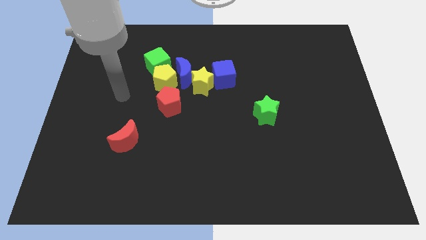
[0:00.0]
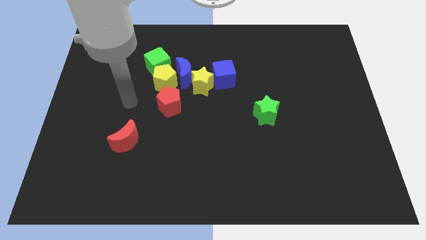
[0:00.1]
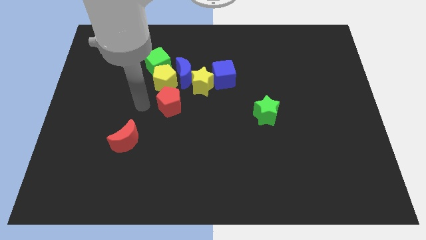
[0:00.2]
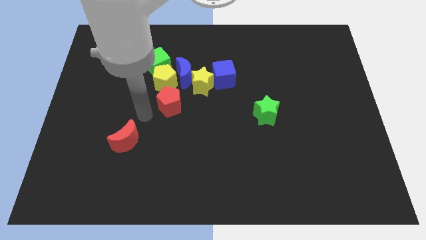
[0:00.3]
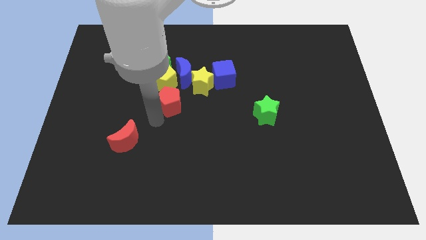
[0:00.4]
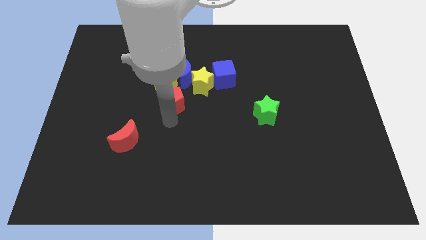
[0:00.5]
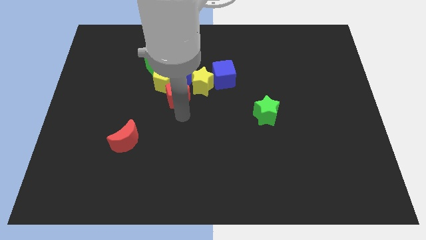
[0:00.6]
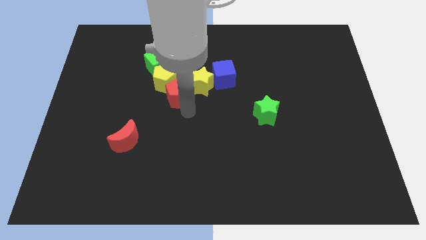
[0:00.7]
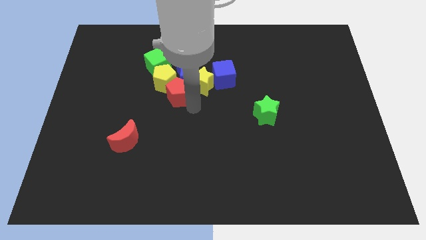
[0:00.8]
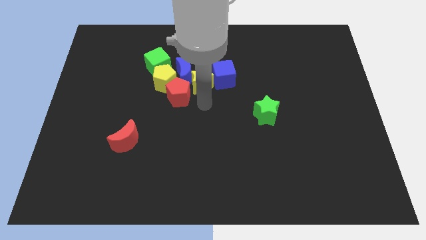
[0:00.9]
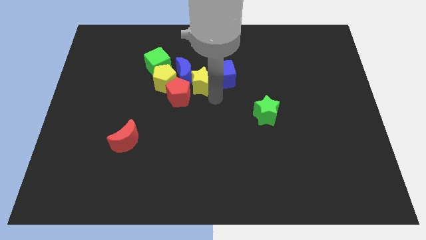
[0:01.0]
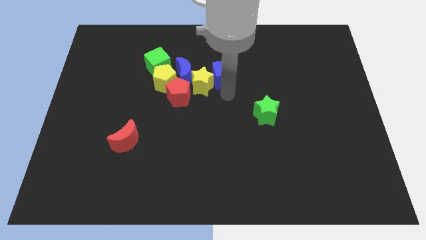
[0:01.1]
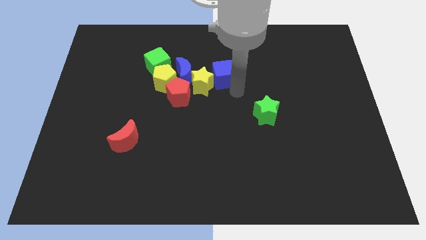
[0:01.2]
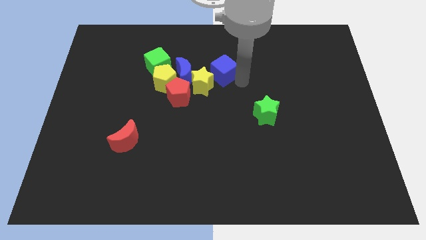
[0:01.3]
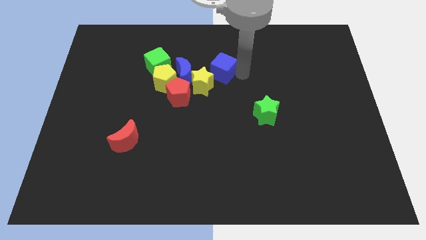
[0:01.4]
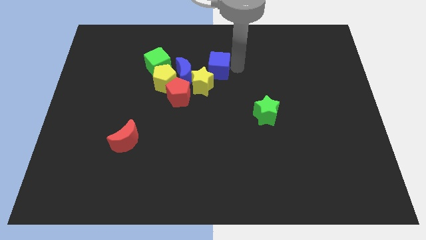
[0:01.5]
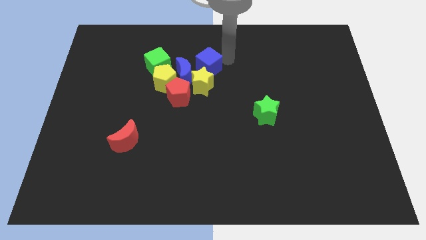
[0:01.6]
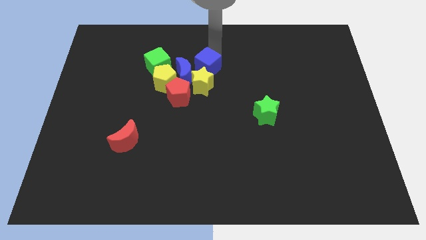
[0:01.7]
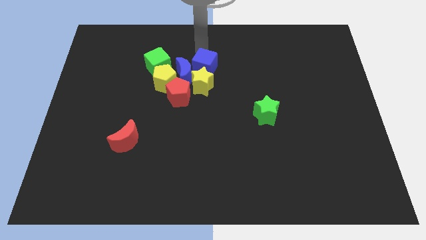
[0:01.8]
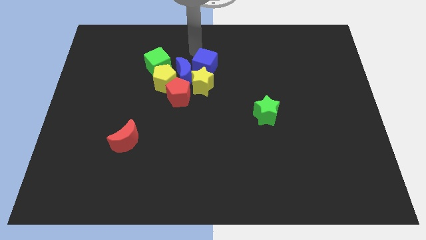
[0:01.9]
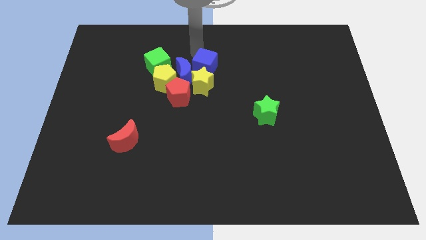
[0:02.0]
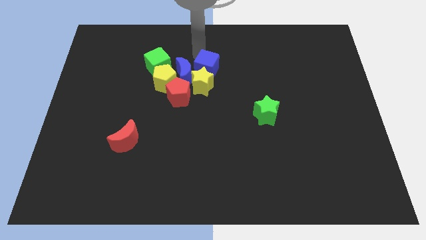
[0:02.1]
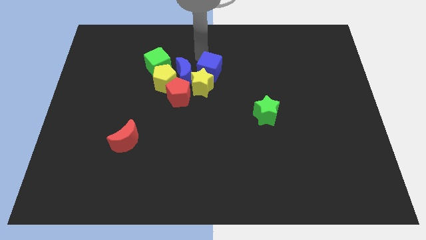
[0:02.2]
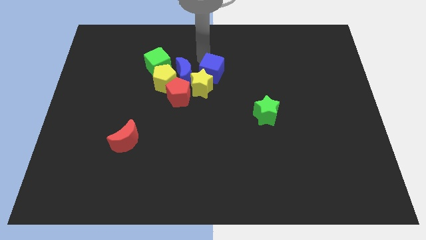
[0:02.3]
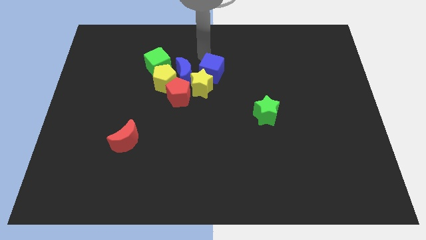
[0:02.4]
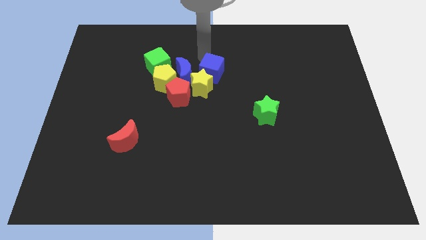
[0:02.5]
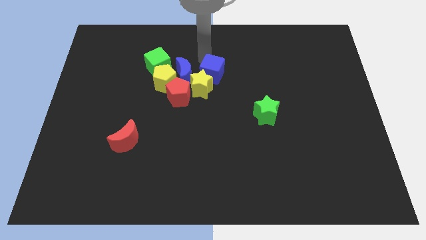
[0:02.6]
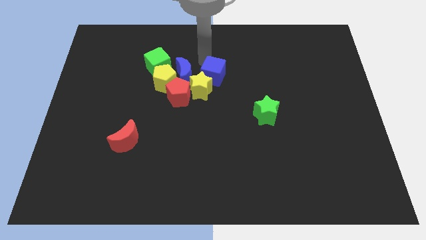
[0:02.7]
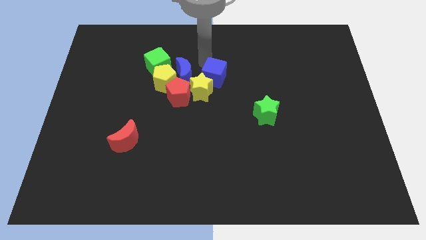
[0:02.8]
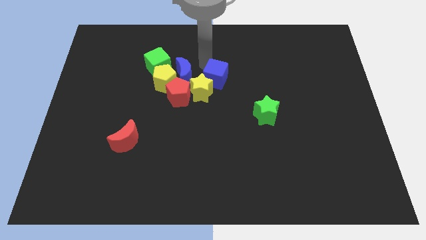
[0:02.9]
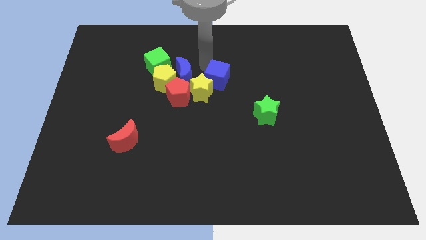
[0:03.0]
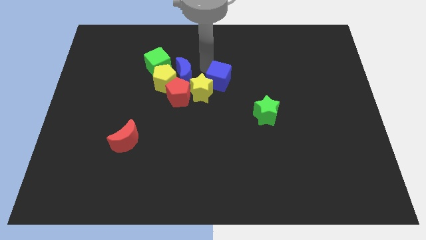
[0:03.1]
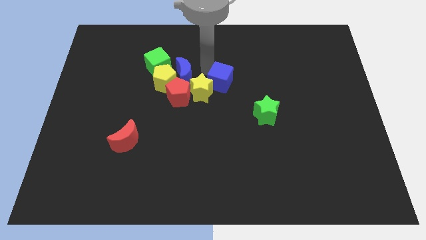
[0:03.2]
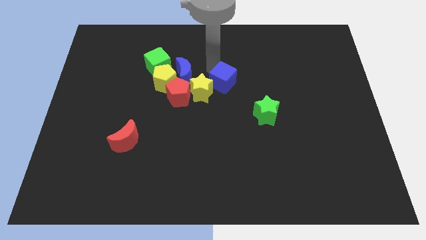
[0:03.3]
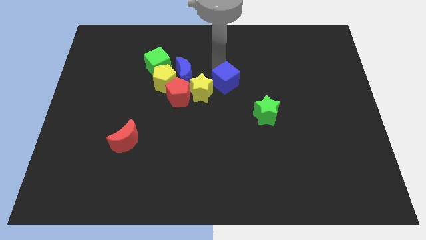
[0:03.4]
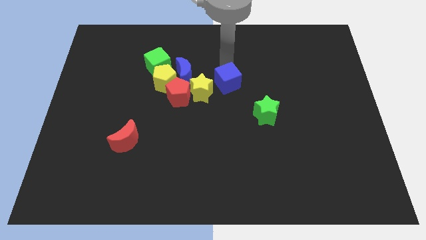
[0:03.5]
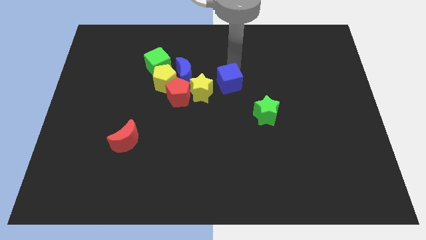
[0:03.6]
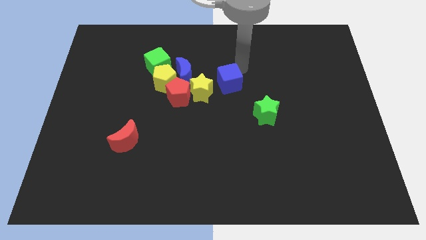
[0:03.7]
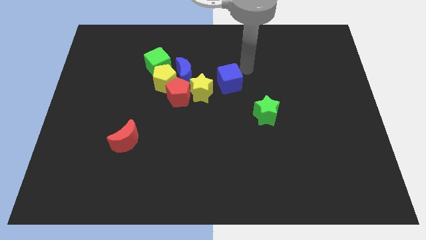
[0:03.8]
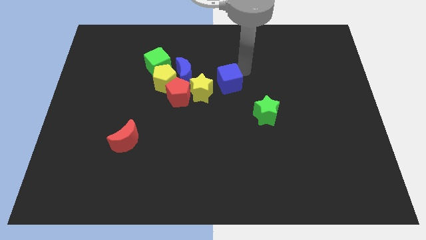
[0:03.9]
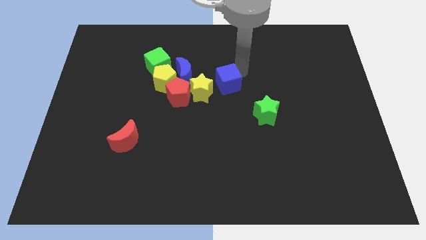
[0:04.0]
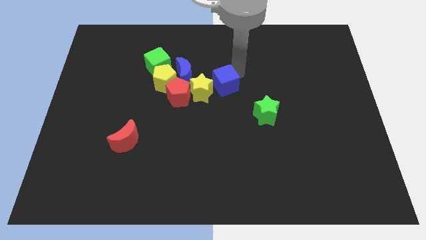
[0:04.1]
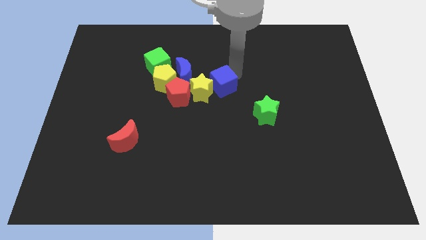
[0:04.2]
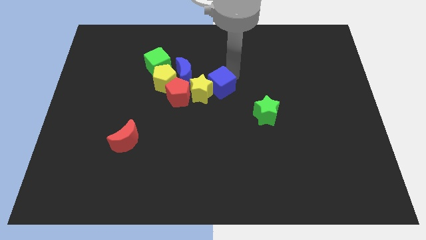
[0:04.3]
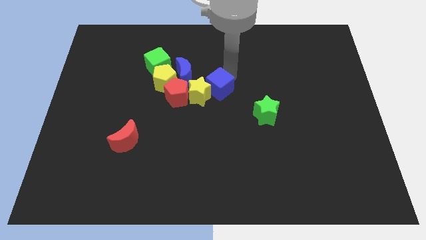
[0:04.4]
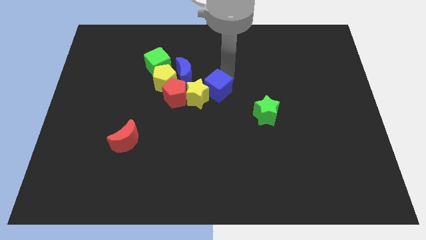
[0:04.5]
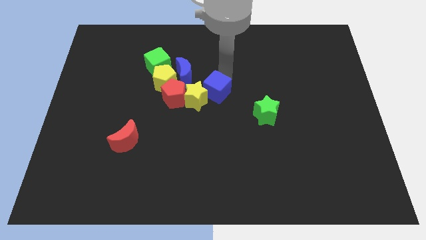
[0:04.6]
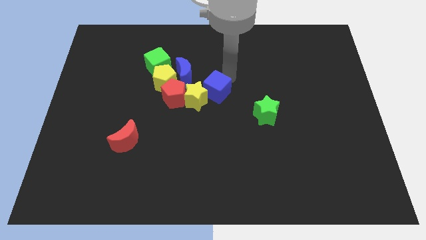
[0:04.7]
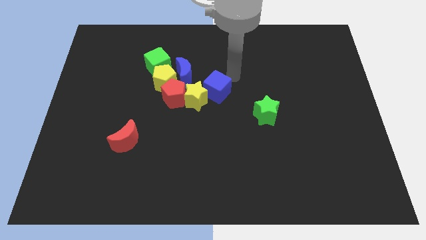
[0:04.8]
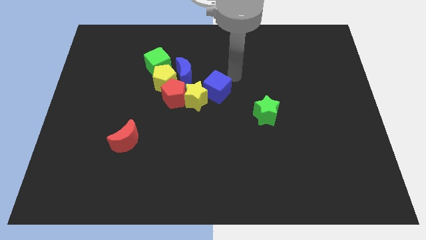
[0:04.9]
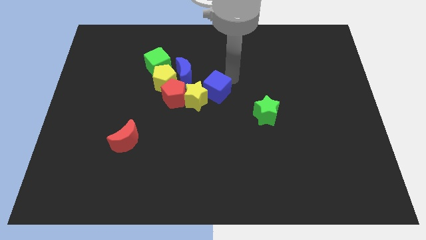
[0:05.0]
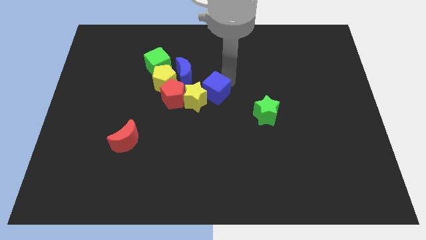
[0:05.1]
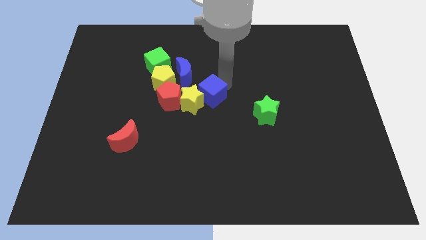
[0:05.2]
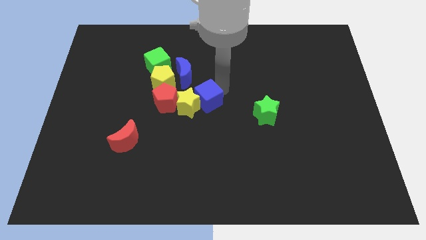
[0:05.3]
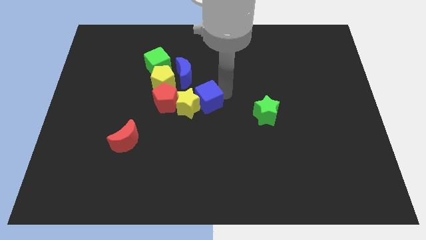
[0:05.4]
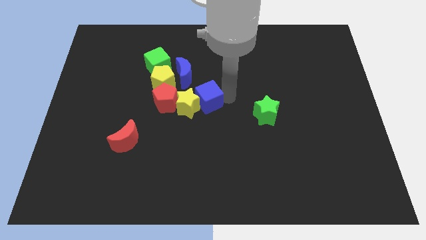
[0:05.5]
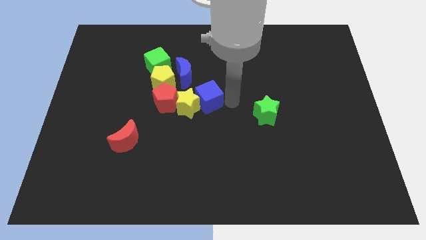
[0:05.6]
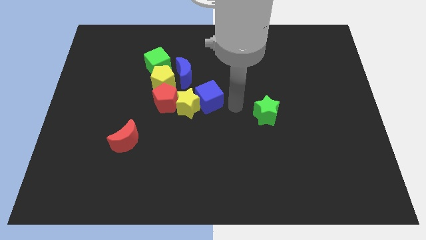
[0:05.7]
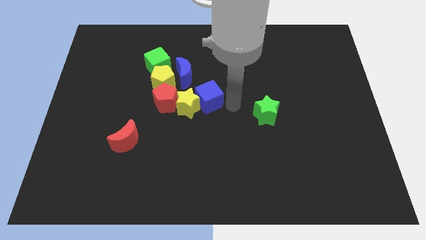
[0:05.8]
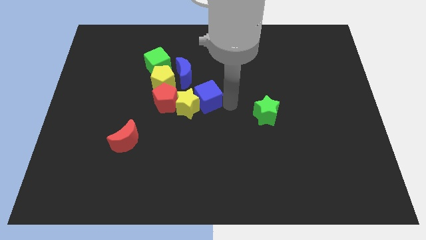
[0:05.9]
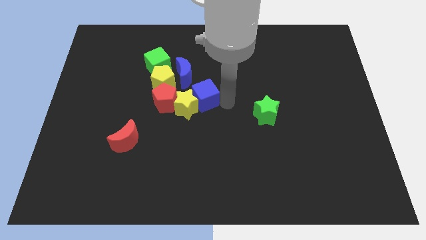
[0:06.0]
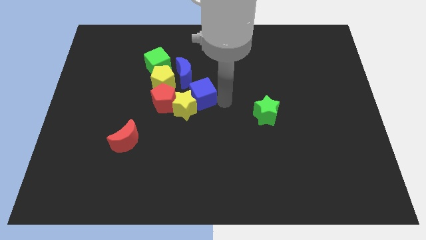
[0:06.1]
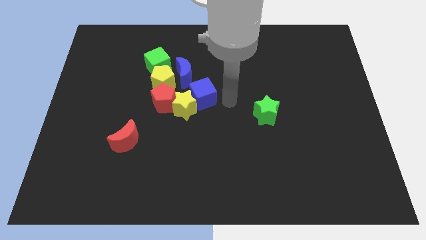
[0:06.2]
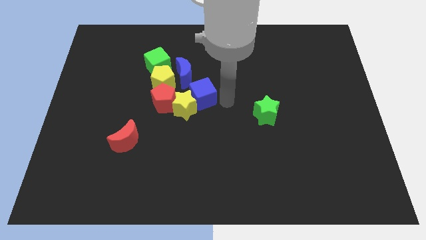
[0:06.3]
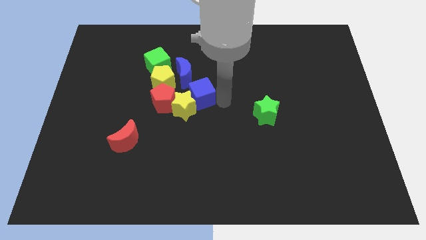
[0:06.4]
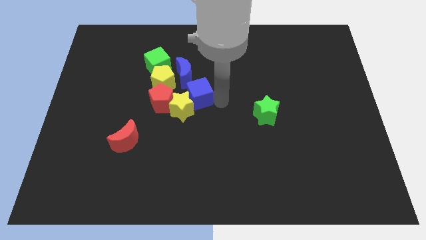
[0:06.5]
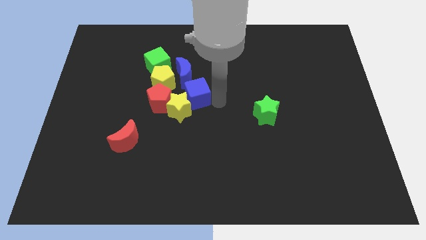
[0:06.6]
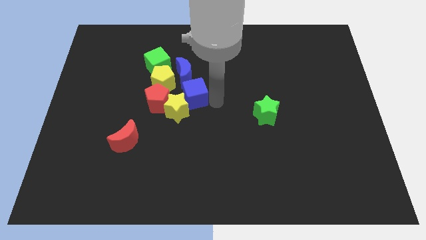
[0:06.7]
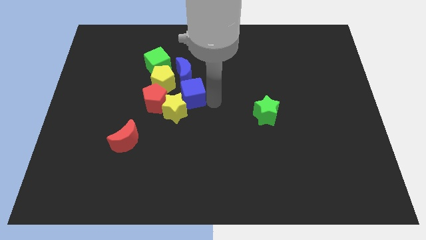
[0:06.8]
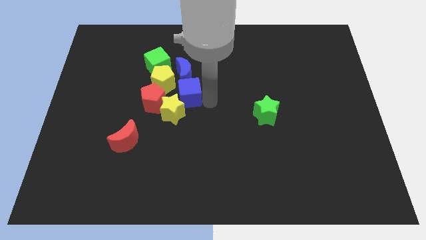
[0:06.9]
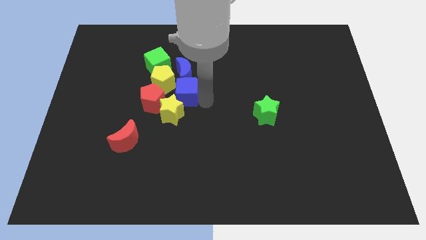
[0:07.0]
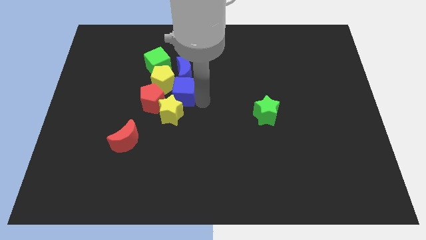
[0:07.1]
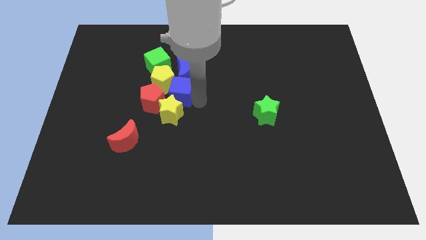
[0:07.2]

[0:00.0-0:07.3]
slide the blue cube next to the yellow pentagon
